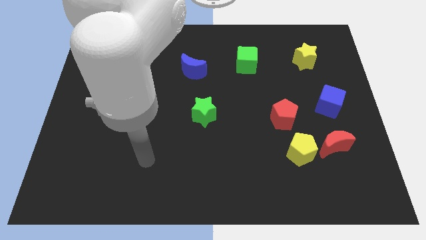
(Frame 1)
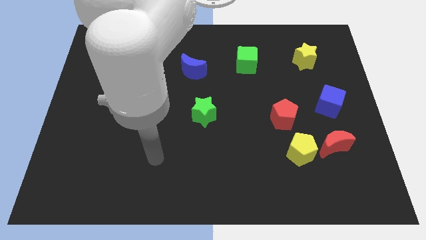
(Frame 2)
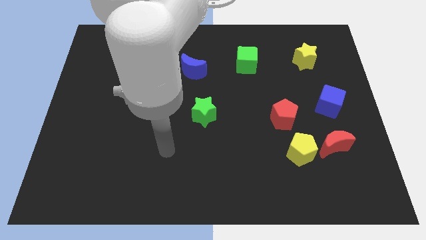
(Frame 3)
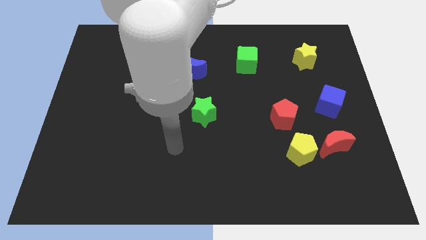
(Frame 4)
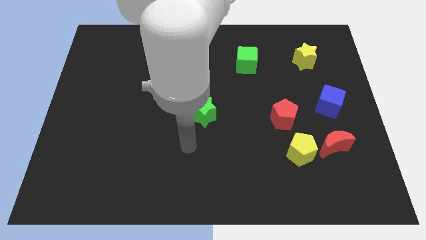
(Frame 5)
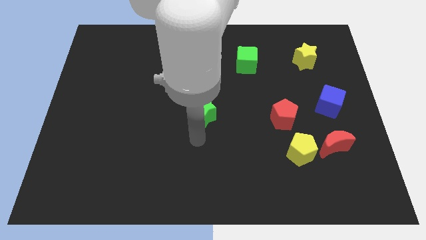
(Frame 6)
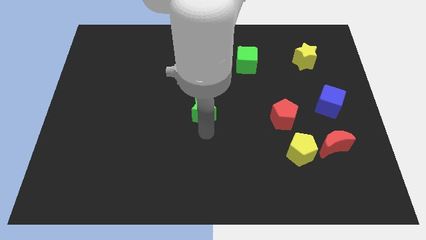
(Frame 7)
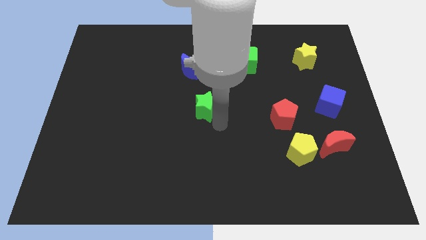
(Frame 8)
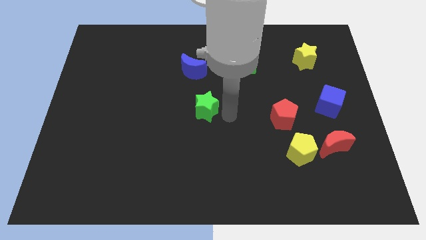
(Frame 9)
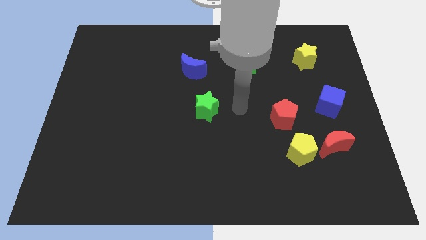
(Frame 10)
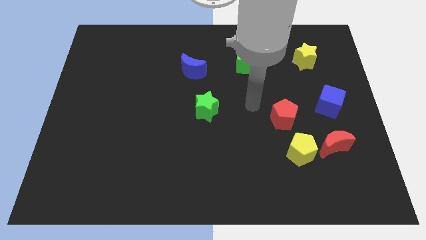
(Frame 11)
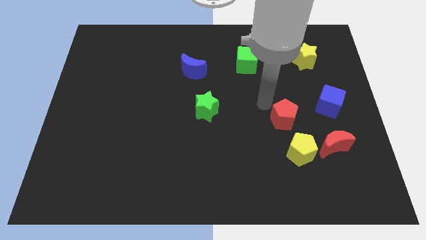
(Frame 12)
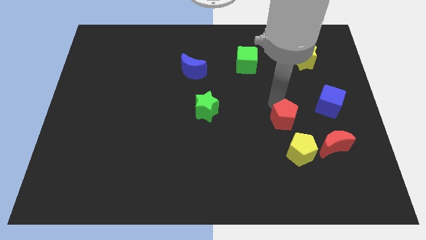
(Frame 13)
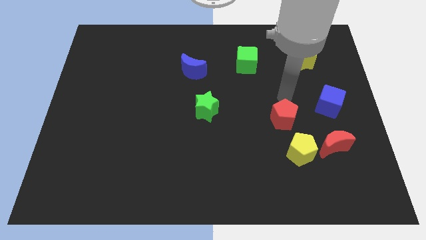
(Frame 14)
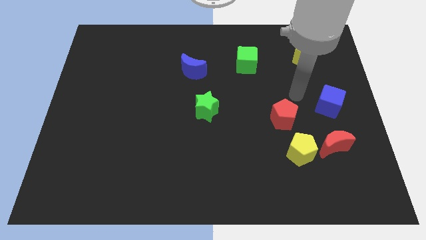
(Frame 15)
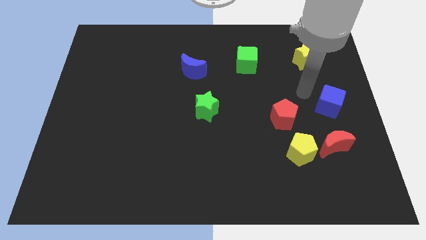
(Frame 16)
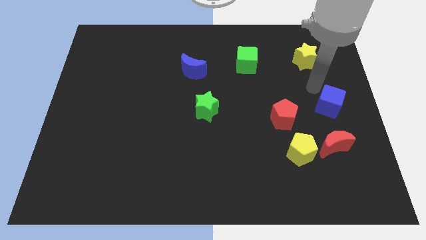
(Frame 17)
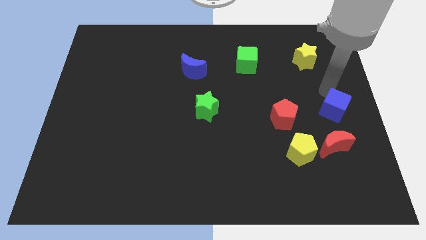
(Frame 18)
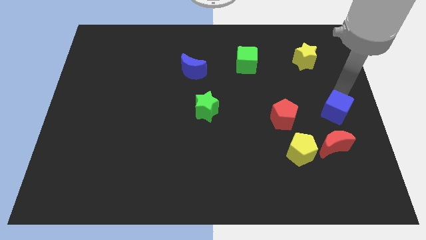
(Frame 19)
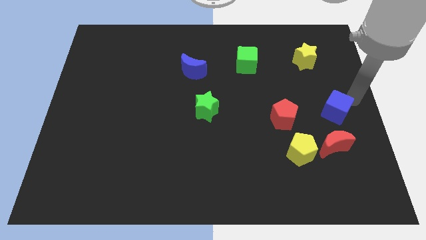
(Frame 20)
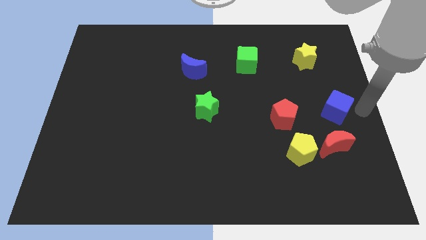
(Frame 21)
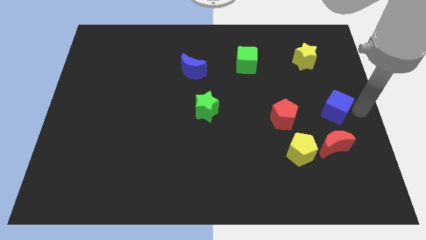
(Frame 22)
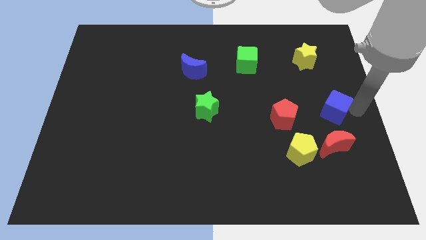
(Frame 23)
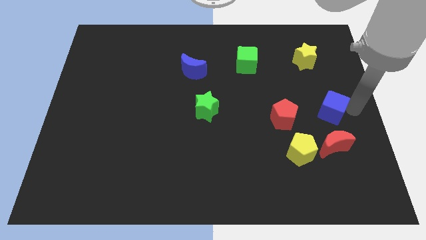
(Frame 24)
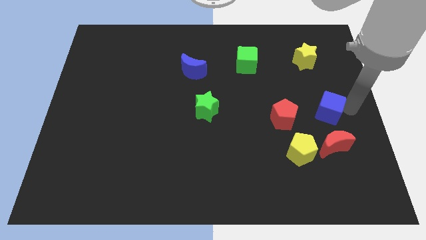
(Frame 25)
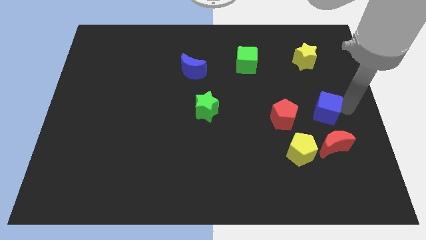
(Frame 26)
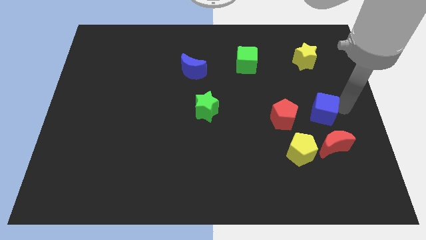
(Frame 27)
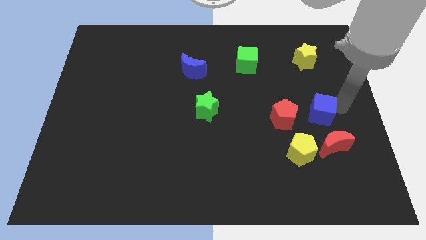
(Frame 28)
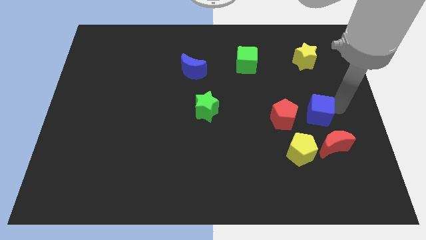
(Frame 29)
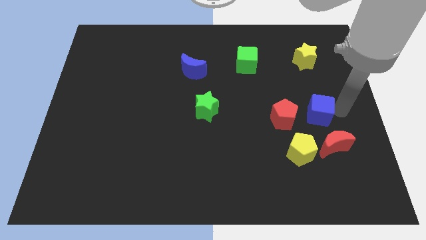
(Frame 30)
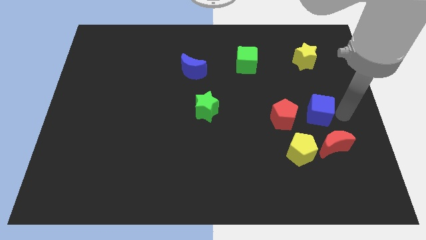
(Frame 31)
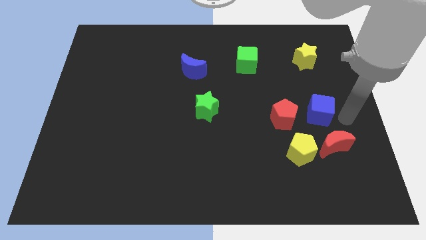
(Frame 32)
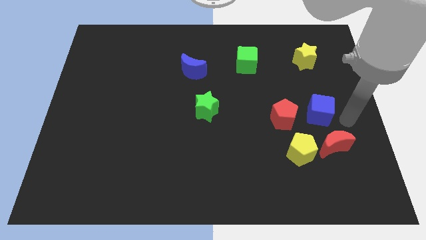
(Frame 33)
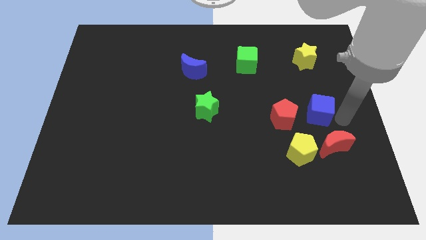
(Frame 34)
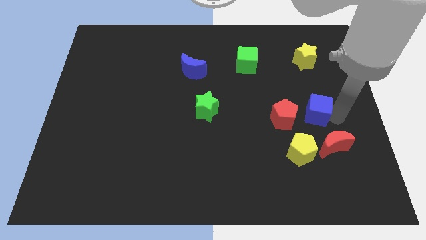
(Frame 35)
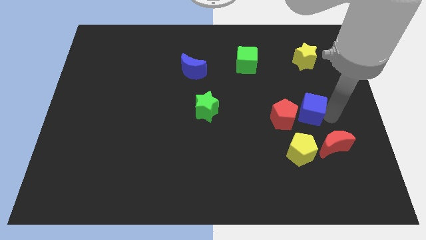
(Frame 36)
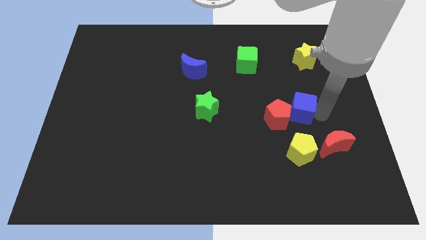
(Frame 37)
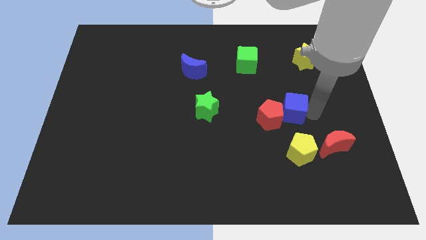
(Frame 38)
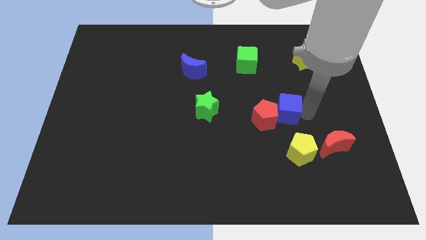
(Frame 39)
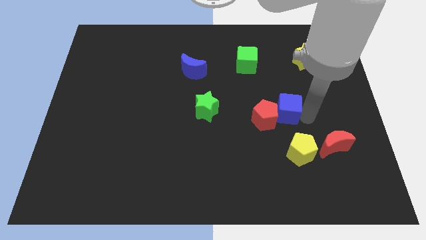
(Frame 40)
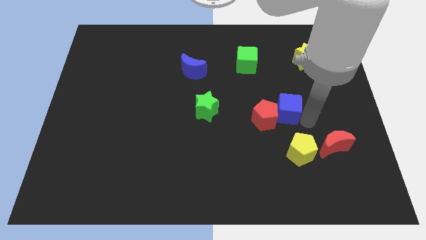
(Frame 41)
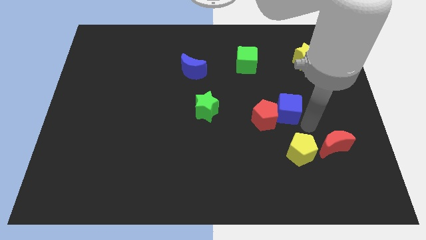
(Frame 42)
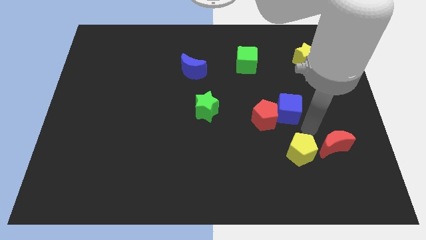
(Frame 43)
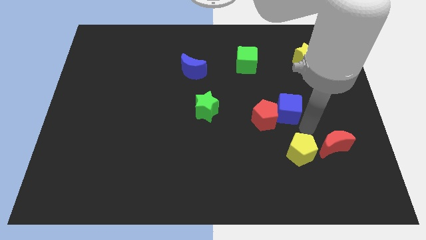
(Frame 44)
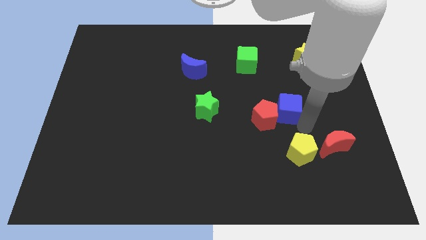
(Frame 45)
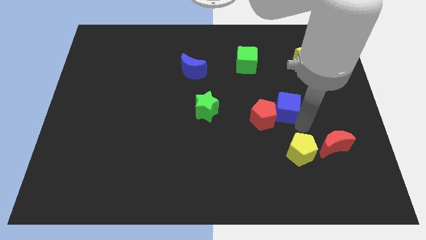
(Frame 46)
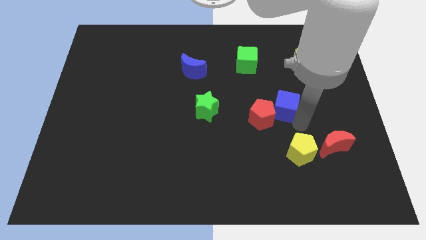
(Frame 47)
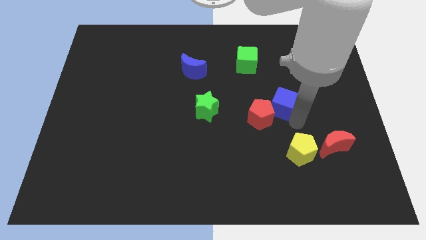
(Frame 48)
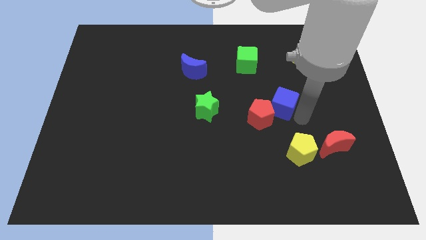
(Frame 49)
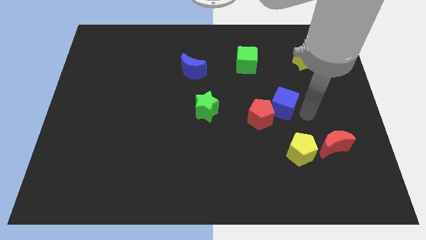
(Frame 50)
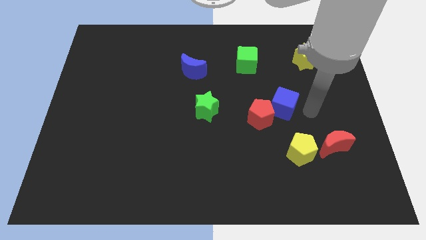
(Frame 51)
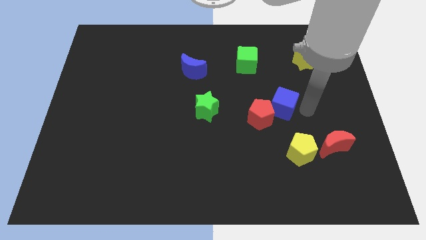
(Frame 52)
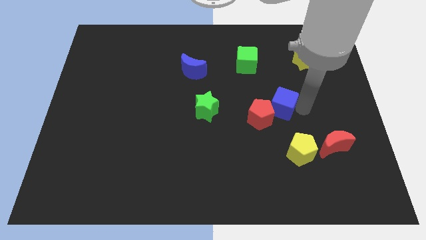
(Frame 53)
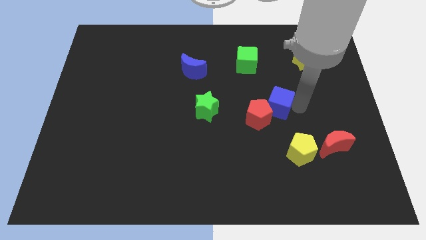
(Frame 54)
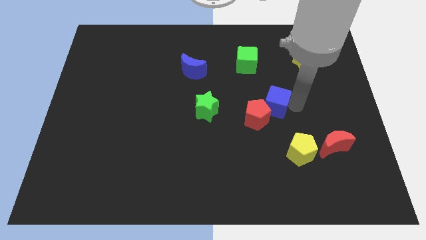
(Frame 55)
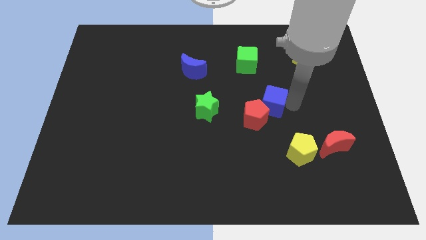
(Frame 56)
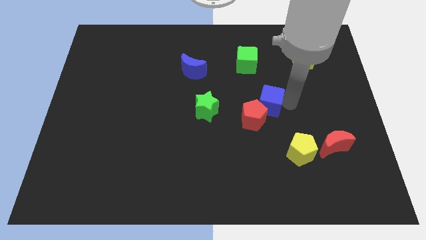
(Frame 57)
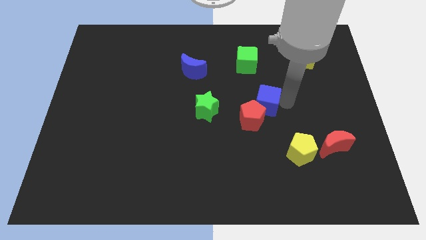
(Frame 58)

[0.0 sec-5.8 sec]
push the blue cube to the middle of the board

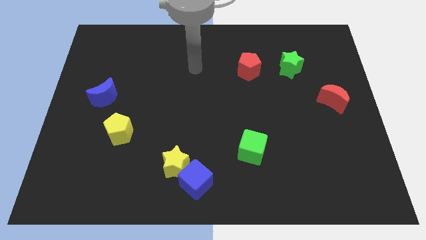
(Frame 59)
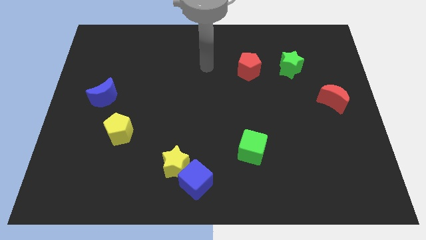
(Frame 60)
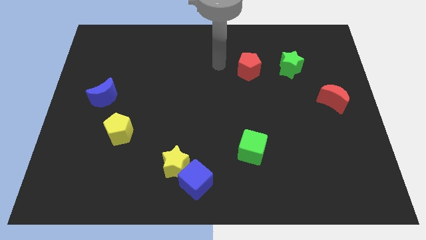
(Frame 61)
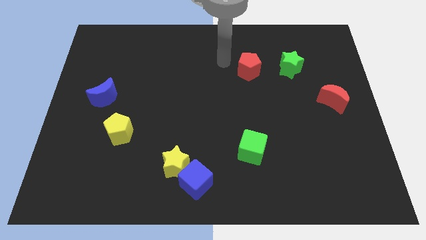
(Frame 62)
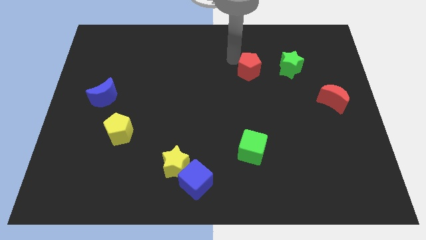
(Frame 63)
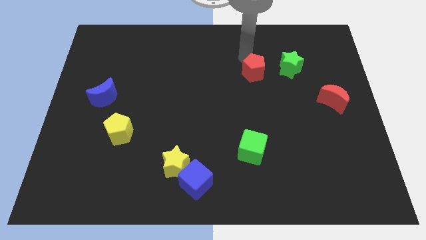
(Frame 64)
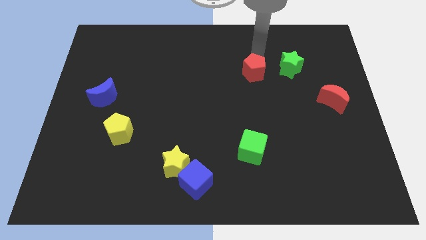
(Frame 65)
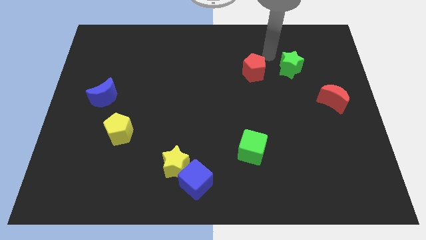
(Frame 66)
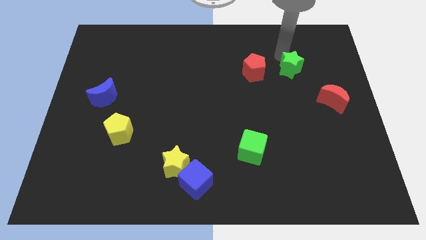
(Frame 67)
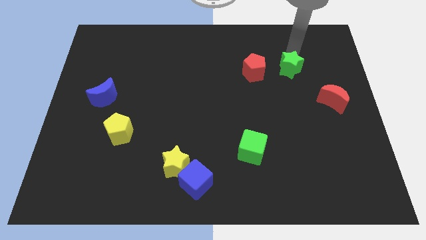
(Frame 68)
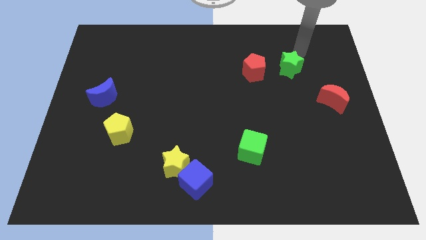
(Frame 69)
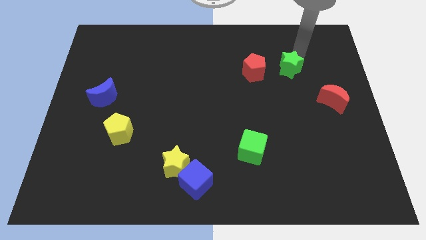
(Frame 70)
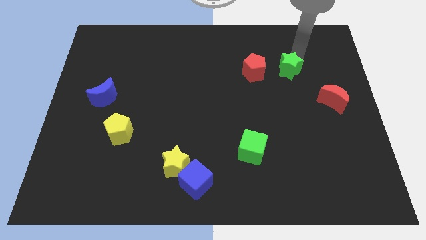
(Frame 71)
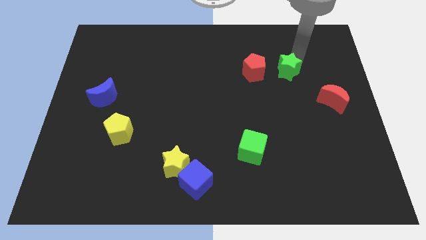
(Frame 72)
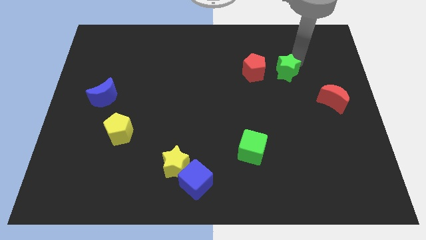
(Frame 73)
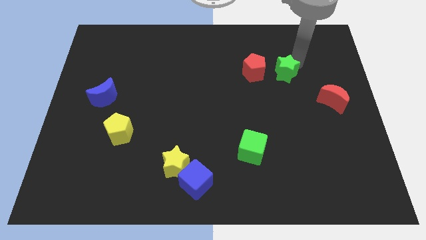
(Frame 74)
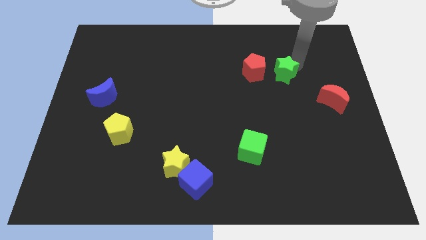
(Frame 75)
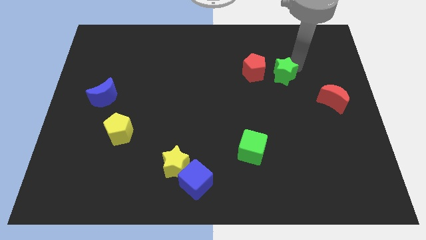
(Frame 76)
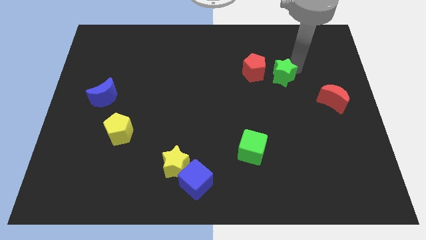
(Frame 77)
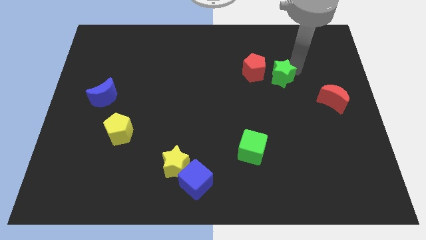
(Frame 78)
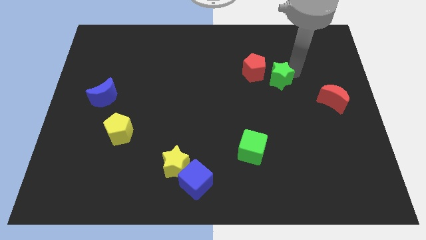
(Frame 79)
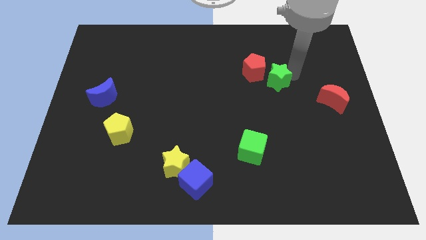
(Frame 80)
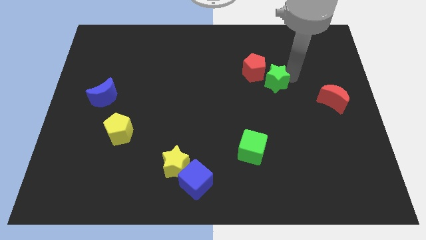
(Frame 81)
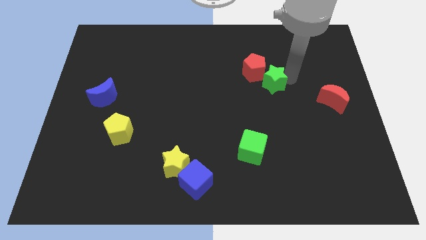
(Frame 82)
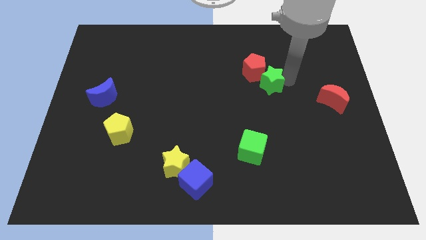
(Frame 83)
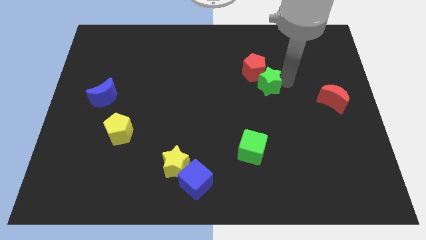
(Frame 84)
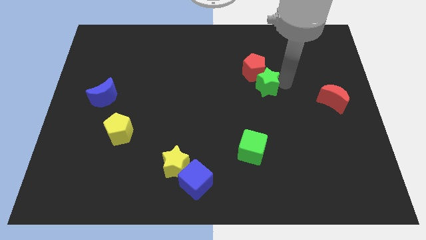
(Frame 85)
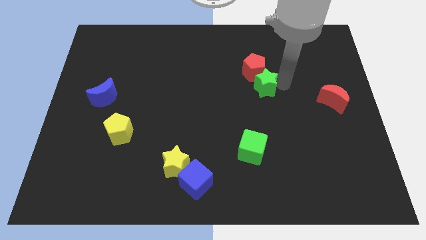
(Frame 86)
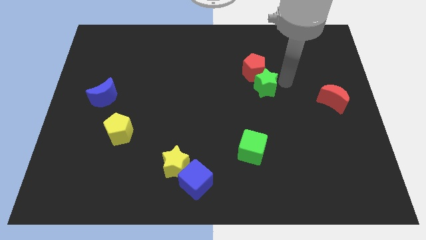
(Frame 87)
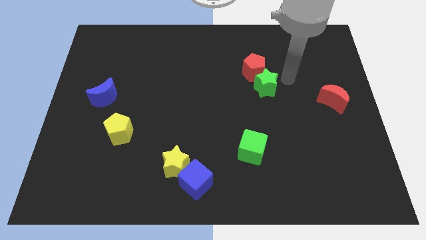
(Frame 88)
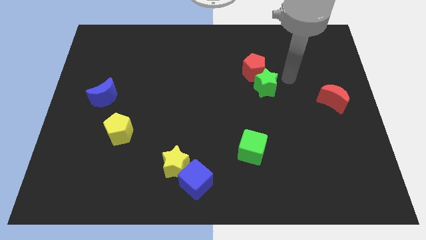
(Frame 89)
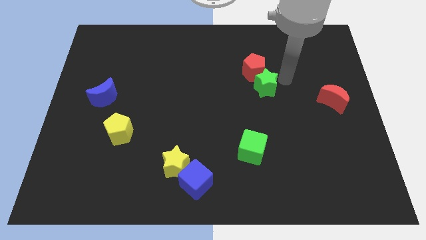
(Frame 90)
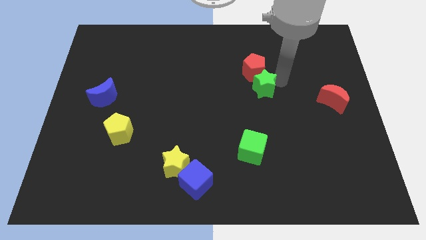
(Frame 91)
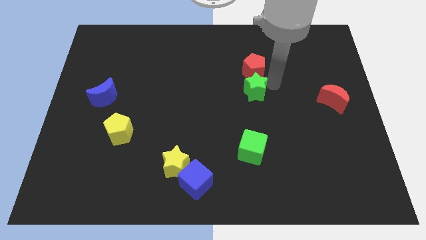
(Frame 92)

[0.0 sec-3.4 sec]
slide the green star to the middle
